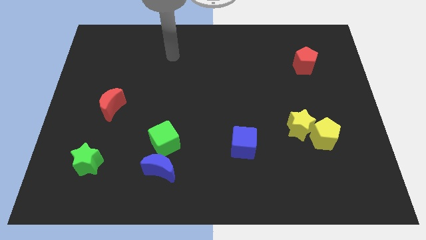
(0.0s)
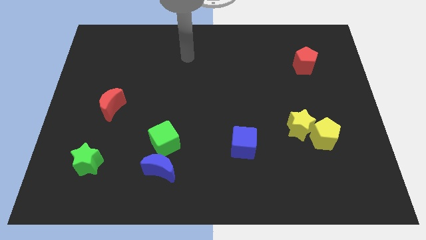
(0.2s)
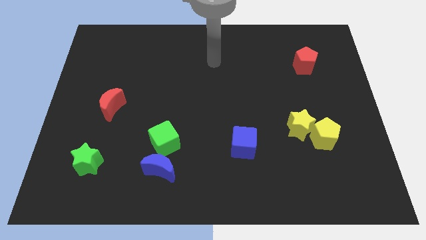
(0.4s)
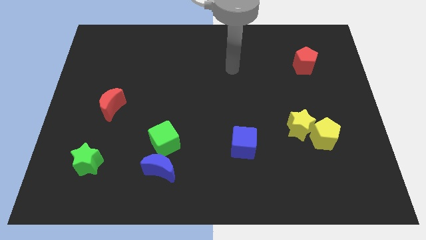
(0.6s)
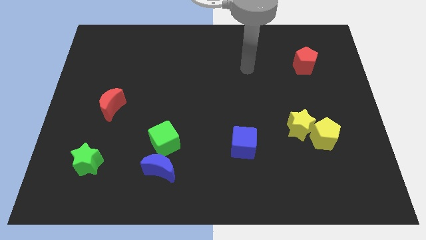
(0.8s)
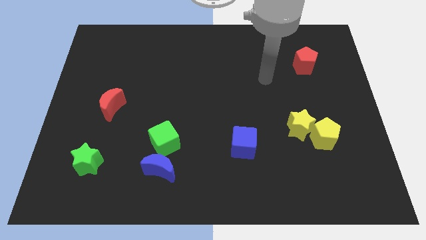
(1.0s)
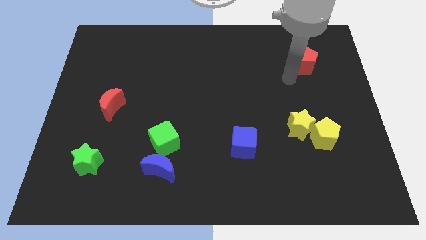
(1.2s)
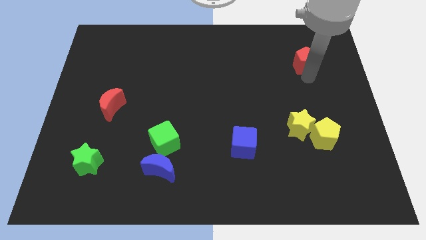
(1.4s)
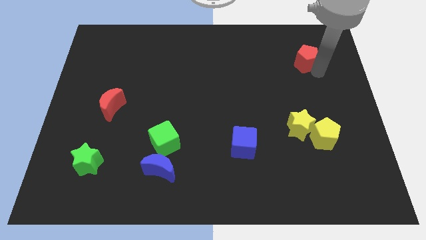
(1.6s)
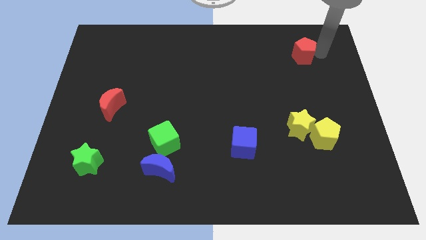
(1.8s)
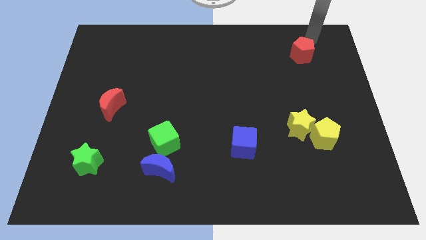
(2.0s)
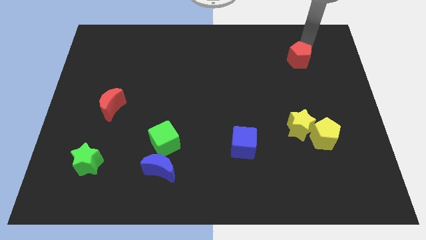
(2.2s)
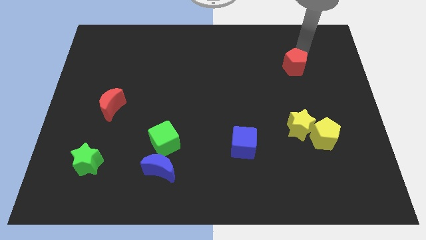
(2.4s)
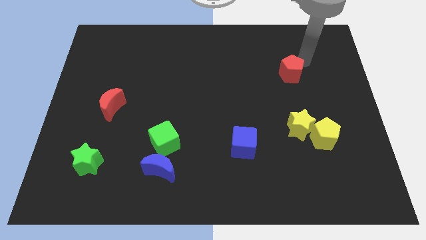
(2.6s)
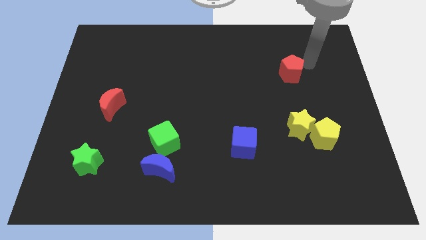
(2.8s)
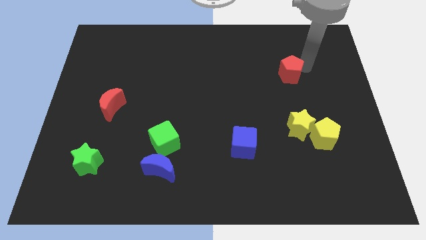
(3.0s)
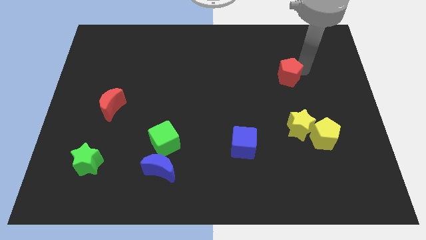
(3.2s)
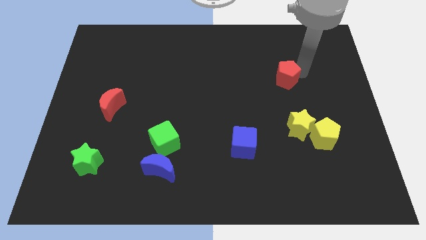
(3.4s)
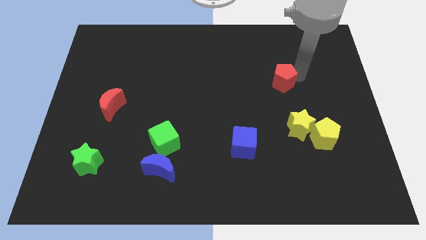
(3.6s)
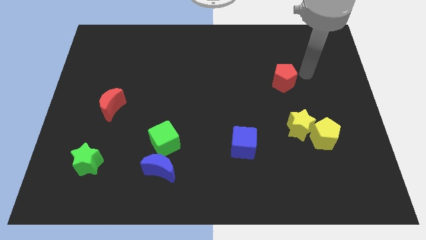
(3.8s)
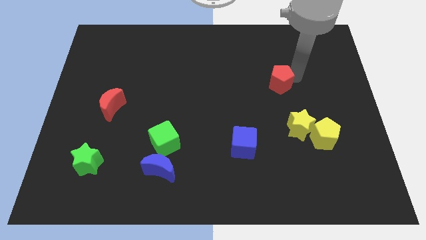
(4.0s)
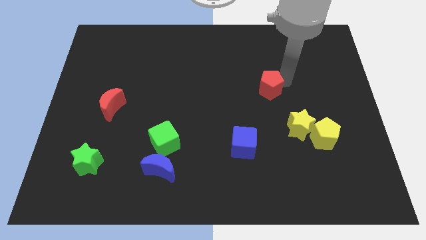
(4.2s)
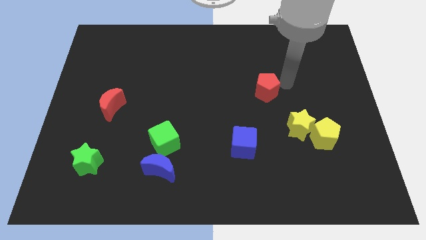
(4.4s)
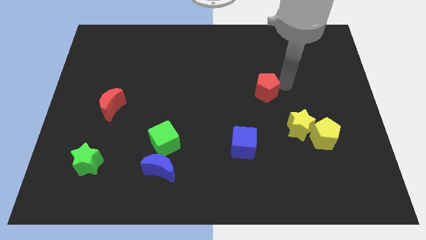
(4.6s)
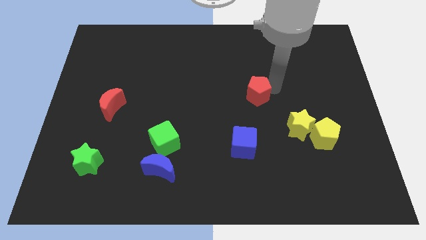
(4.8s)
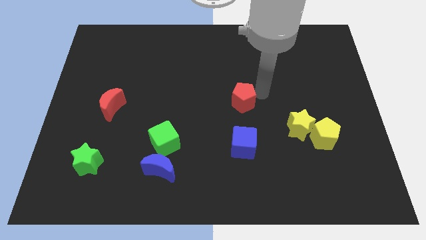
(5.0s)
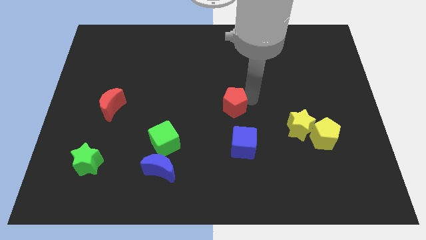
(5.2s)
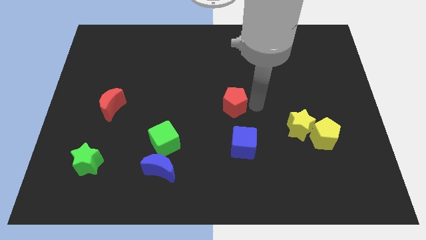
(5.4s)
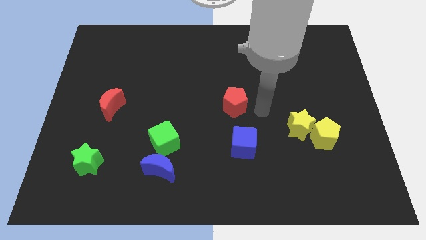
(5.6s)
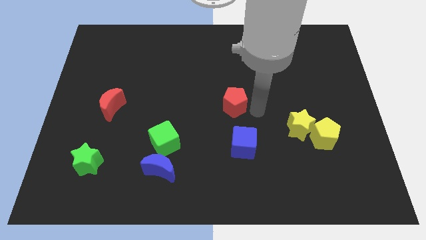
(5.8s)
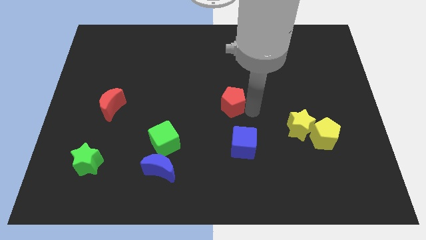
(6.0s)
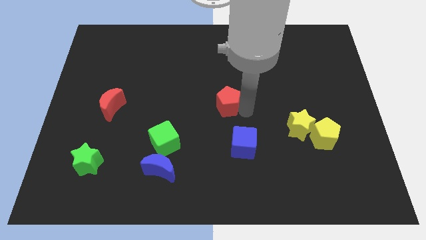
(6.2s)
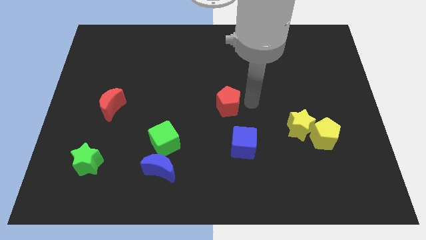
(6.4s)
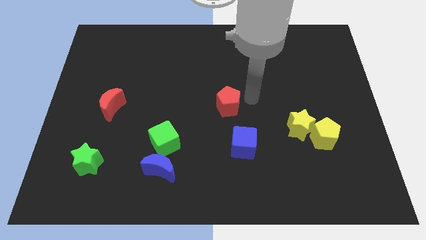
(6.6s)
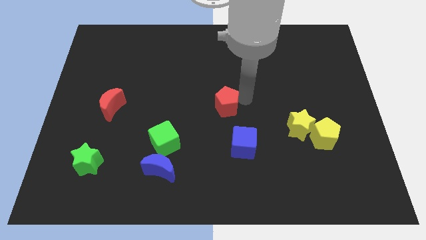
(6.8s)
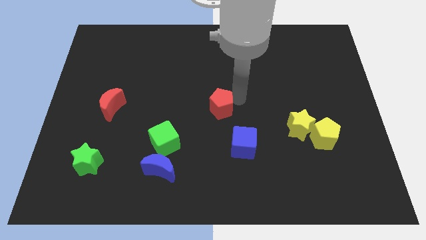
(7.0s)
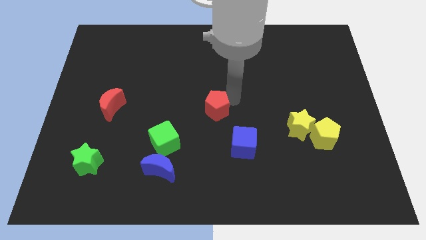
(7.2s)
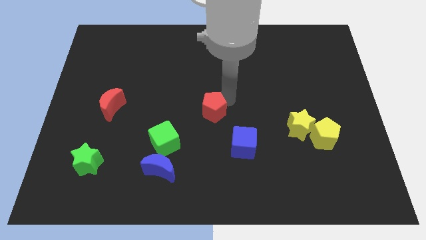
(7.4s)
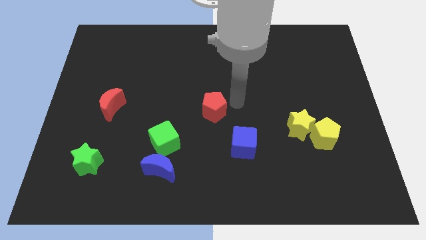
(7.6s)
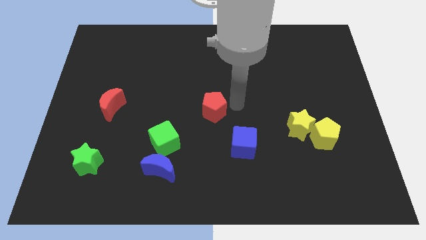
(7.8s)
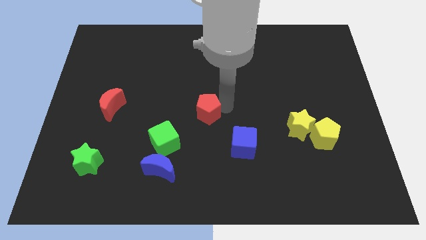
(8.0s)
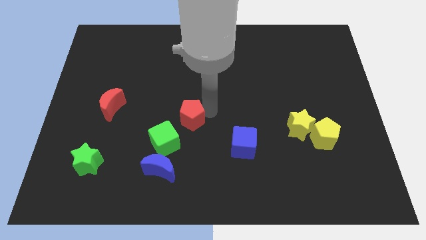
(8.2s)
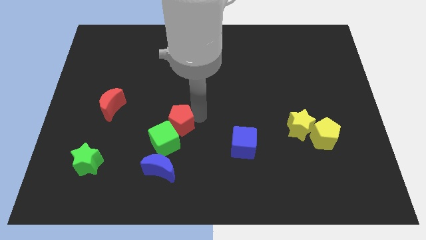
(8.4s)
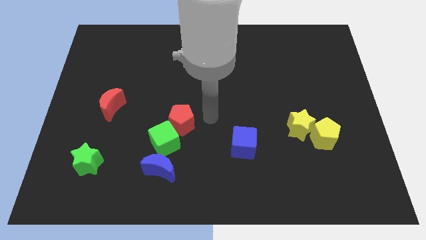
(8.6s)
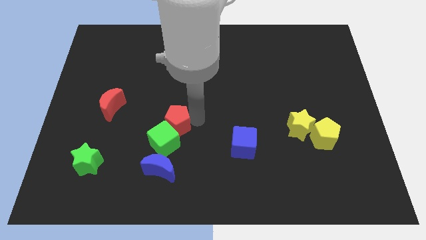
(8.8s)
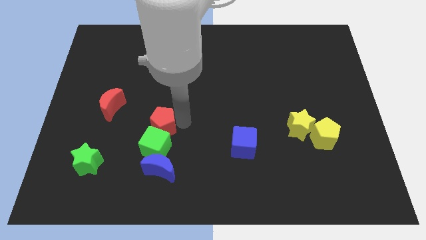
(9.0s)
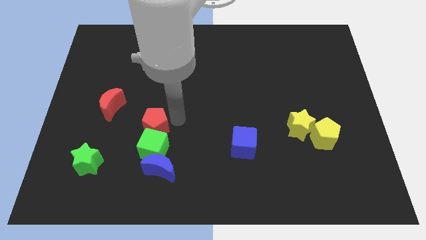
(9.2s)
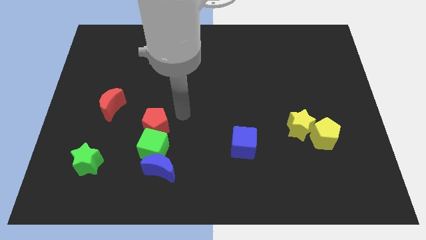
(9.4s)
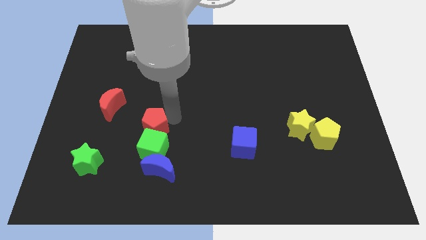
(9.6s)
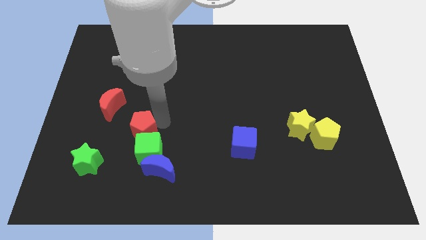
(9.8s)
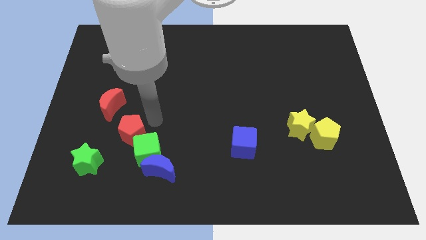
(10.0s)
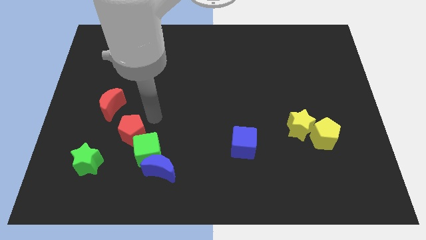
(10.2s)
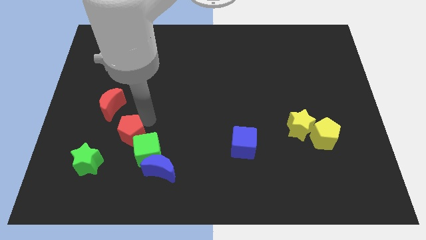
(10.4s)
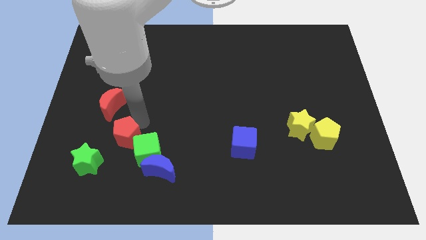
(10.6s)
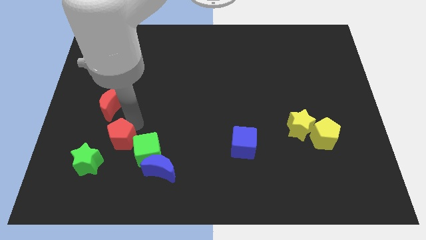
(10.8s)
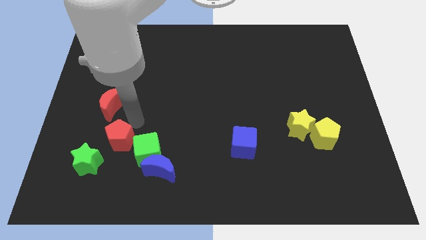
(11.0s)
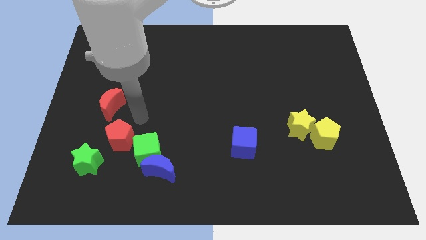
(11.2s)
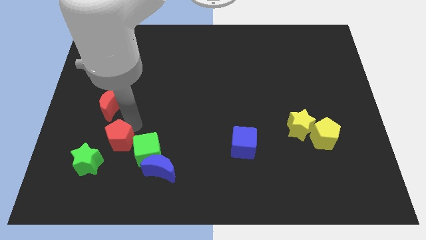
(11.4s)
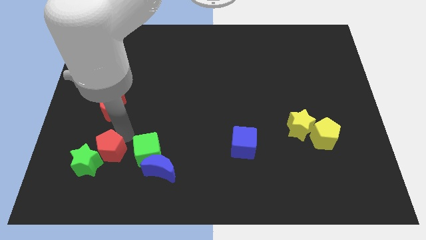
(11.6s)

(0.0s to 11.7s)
put the red pentagon close to the green star

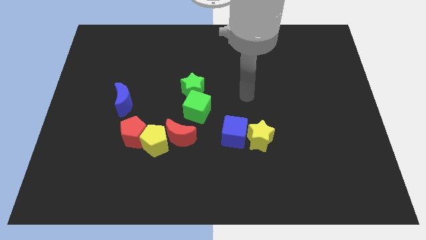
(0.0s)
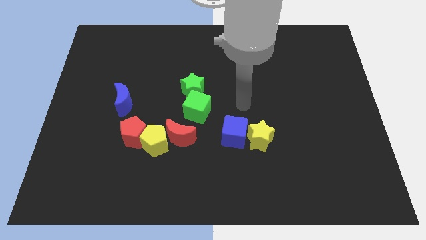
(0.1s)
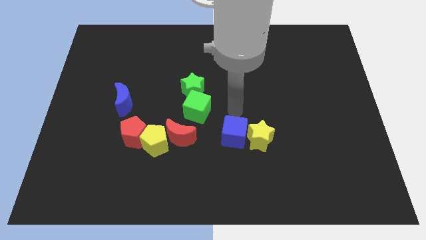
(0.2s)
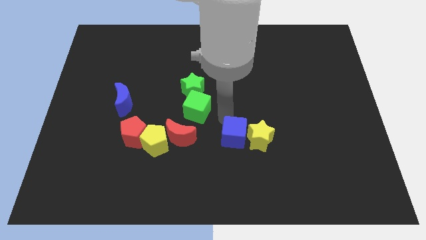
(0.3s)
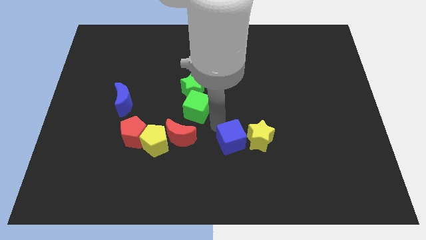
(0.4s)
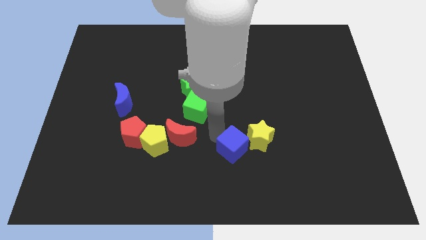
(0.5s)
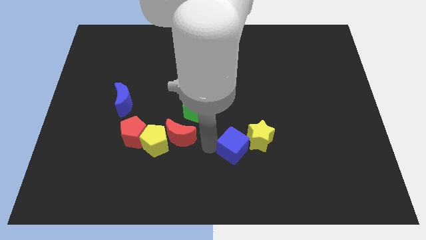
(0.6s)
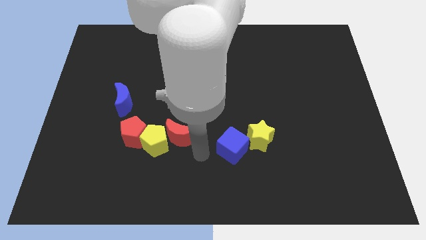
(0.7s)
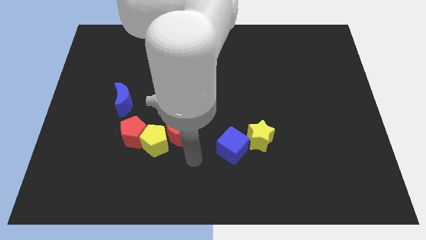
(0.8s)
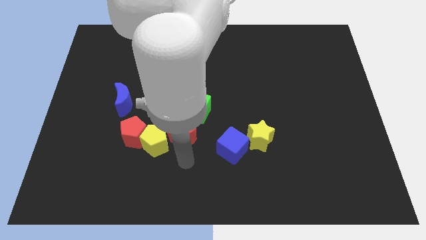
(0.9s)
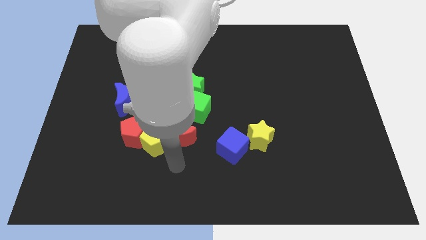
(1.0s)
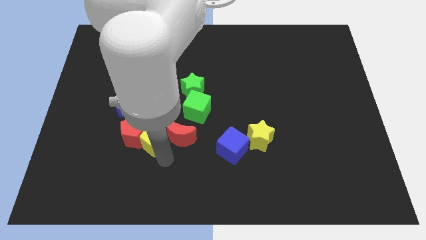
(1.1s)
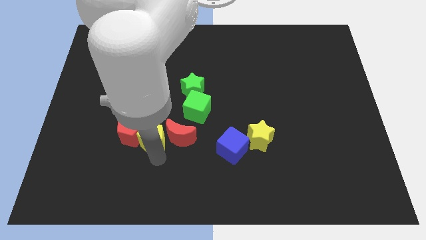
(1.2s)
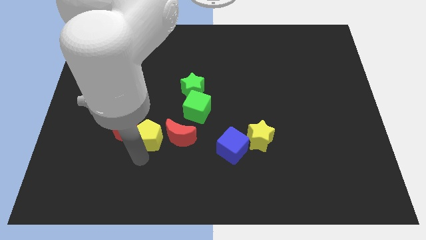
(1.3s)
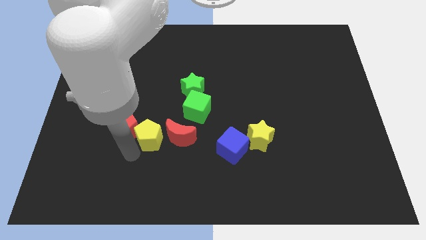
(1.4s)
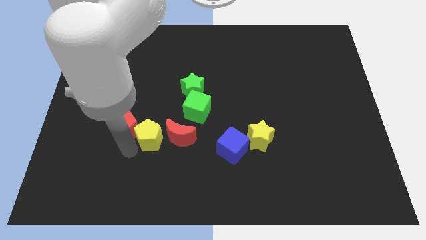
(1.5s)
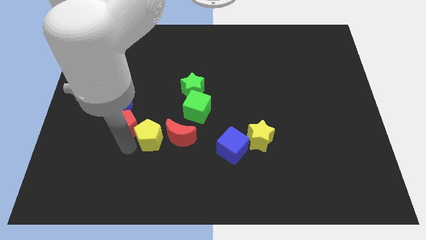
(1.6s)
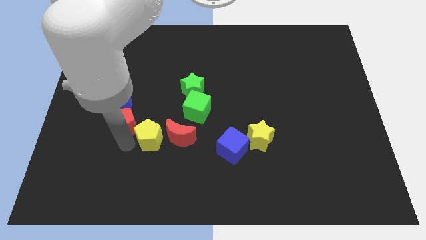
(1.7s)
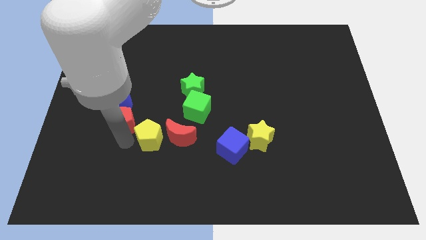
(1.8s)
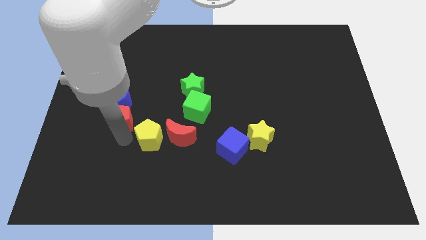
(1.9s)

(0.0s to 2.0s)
slide the red pentagon next to the blue moon

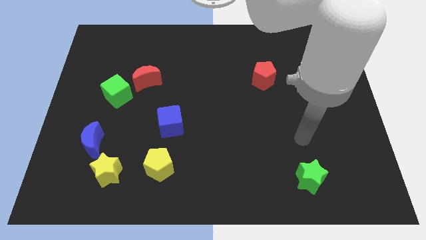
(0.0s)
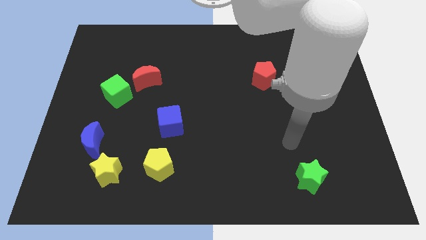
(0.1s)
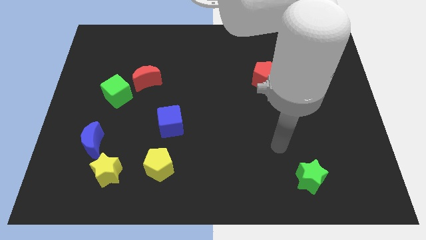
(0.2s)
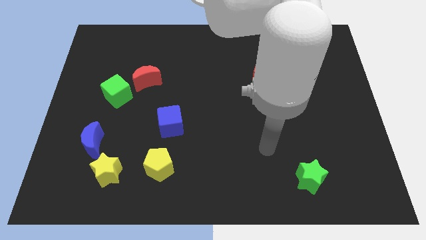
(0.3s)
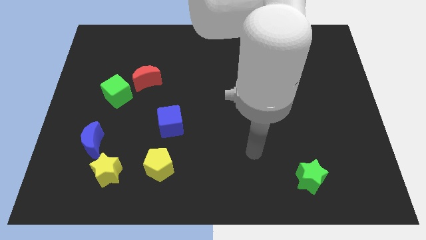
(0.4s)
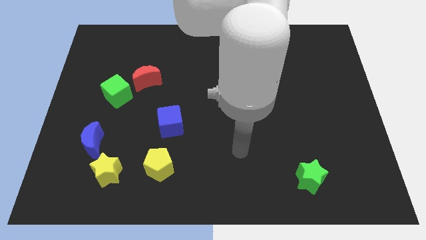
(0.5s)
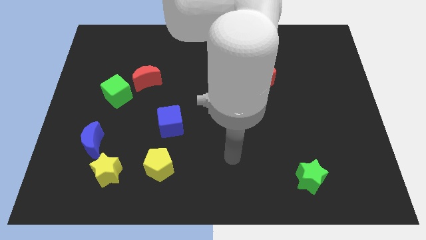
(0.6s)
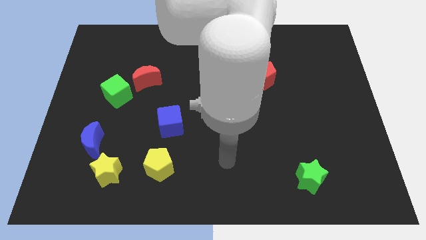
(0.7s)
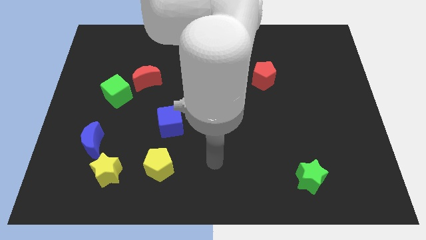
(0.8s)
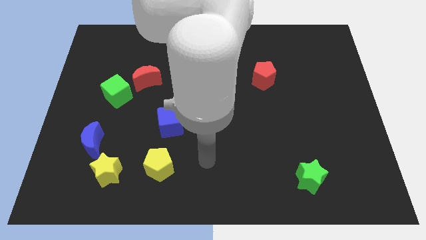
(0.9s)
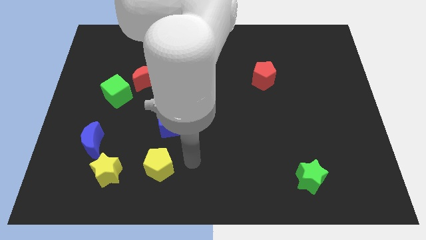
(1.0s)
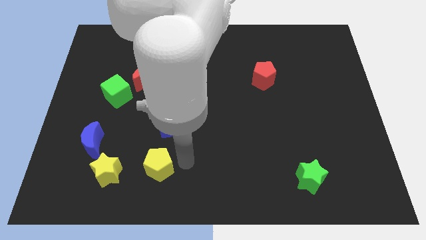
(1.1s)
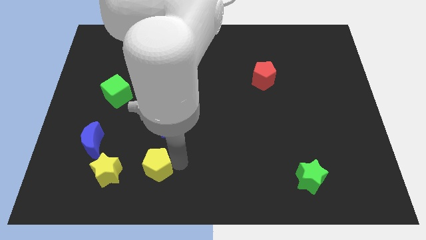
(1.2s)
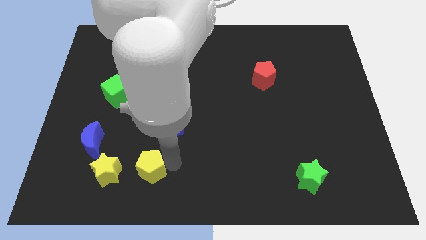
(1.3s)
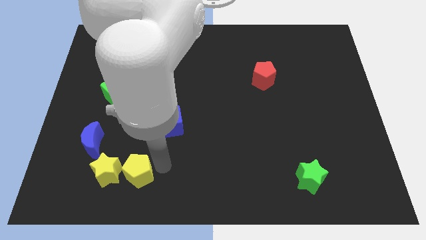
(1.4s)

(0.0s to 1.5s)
move the yellow pentagon to the yellow star
